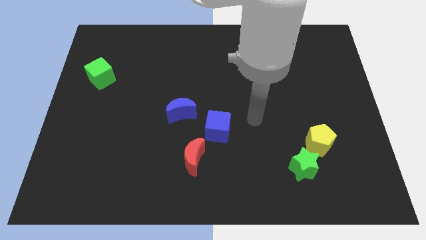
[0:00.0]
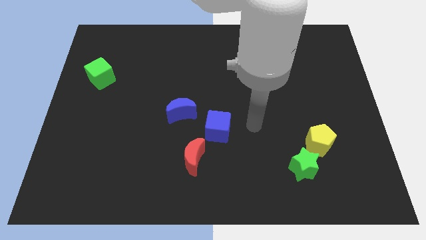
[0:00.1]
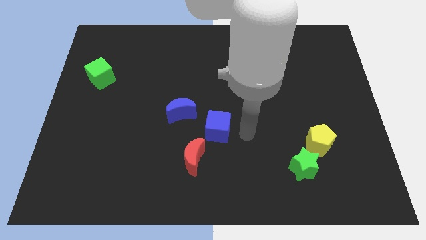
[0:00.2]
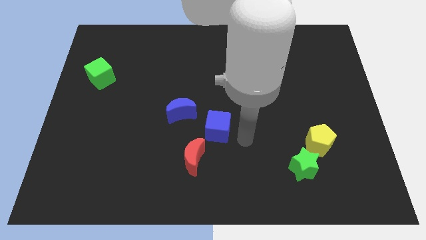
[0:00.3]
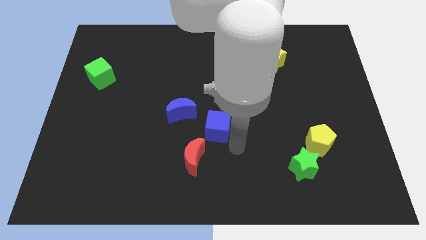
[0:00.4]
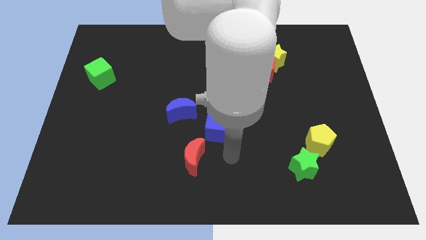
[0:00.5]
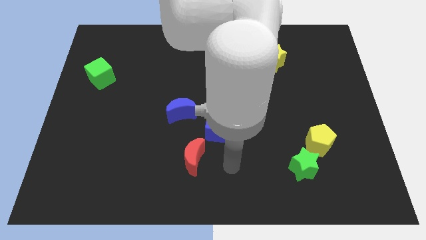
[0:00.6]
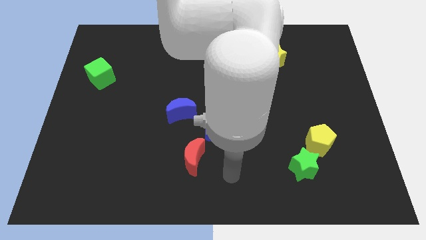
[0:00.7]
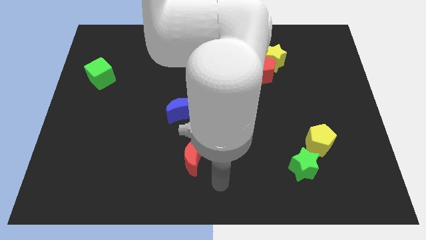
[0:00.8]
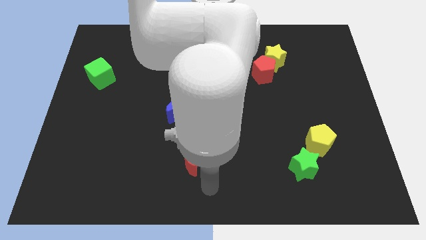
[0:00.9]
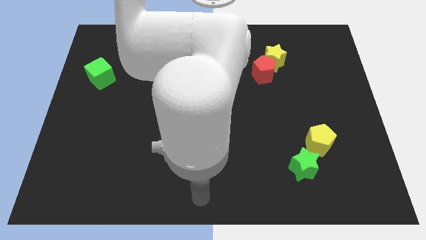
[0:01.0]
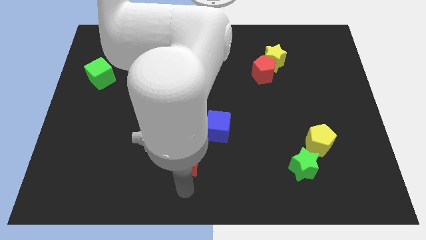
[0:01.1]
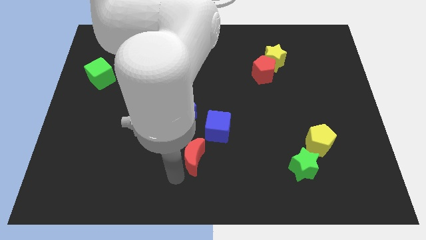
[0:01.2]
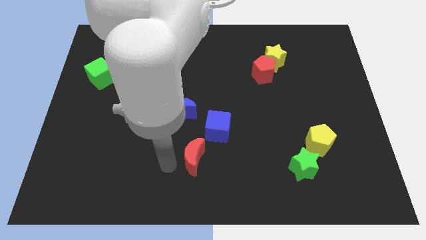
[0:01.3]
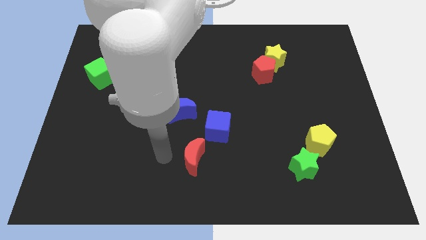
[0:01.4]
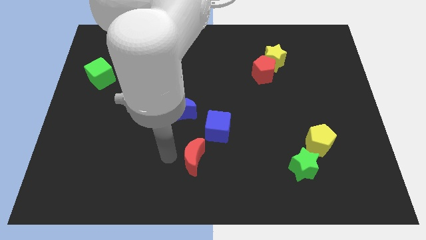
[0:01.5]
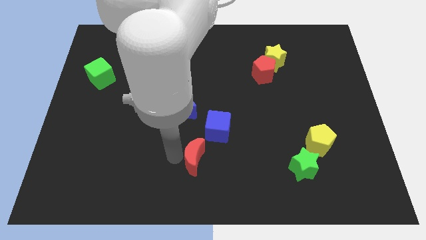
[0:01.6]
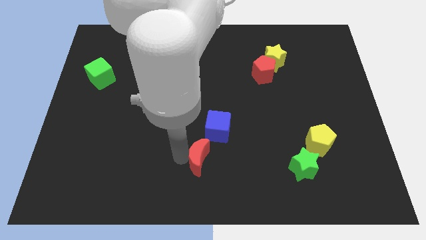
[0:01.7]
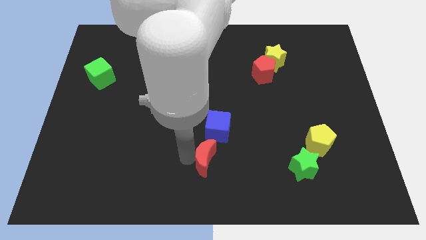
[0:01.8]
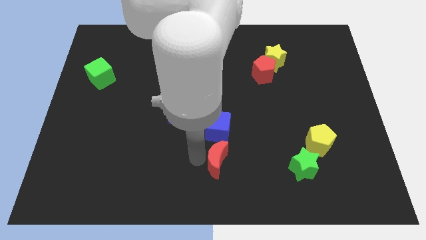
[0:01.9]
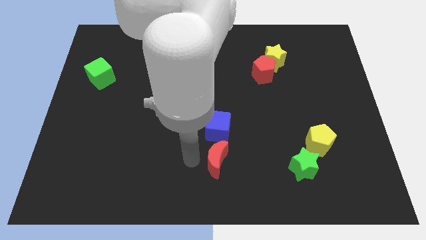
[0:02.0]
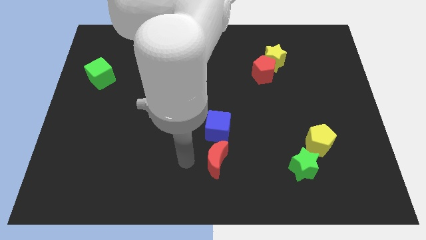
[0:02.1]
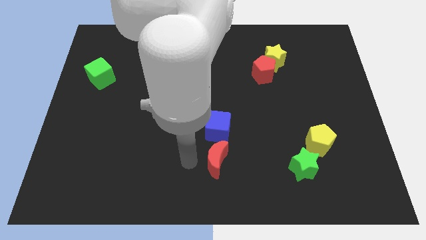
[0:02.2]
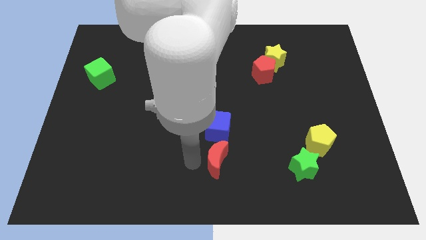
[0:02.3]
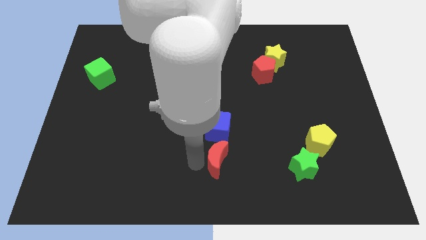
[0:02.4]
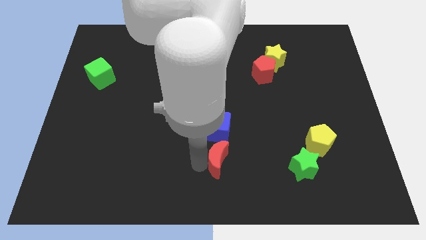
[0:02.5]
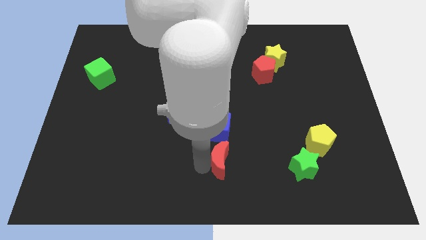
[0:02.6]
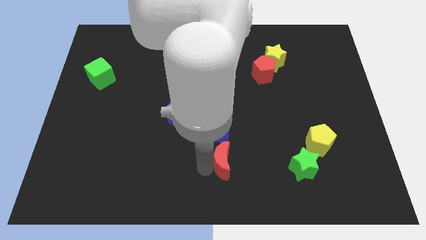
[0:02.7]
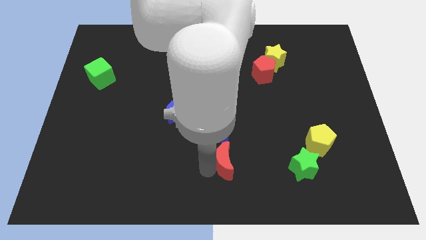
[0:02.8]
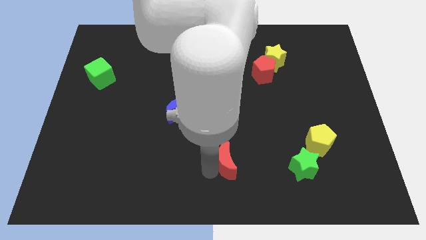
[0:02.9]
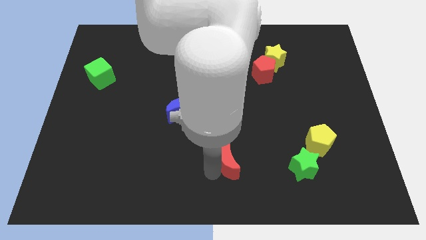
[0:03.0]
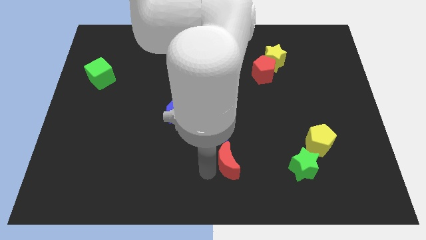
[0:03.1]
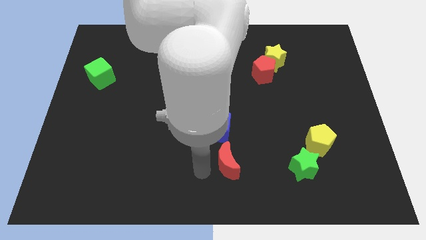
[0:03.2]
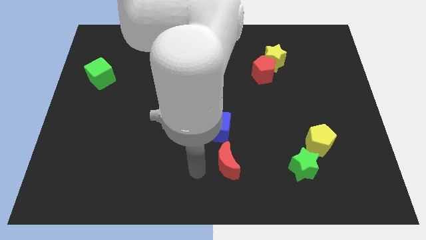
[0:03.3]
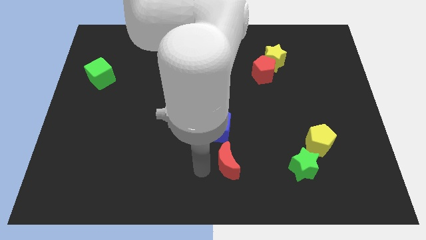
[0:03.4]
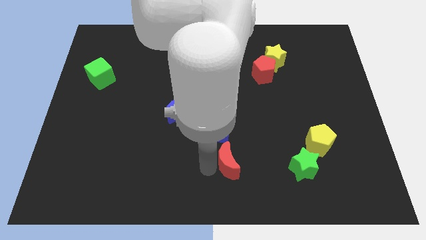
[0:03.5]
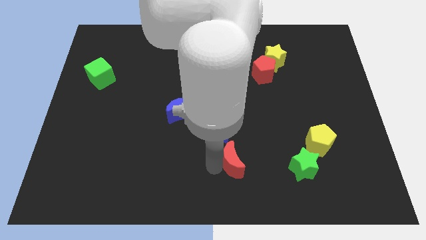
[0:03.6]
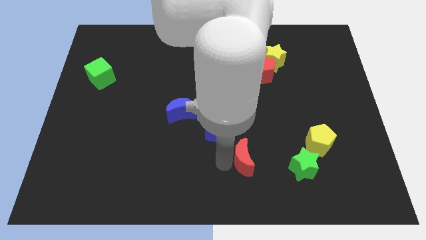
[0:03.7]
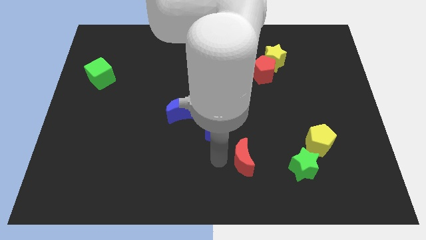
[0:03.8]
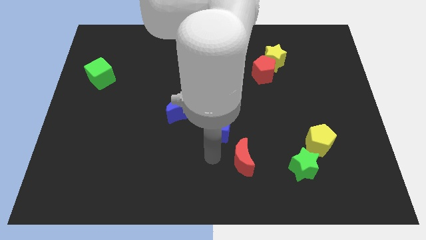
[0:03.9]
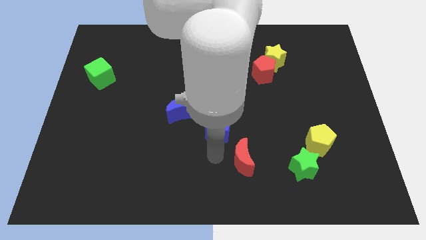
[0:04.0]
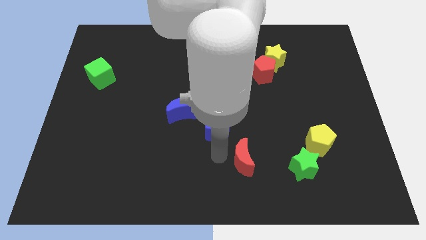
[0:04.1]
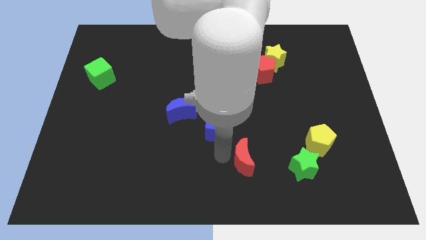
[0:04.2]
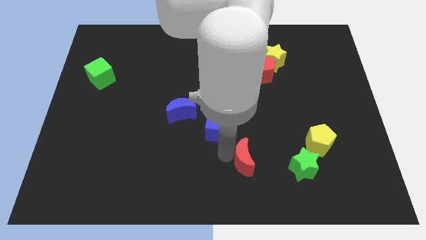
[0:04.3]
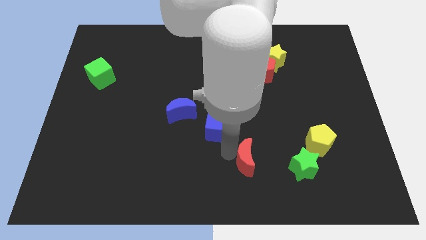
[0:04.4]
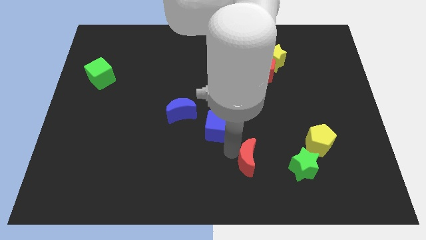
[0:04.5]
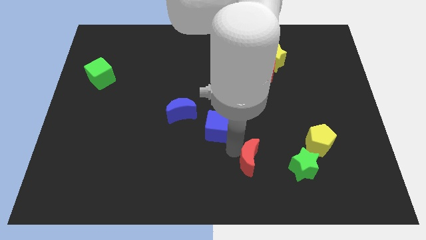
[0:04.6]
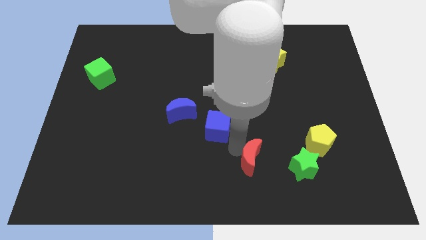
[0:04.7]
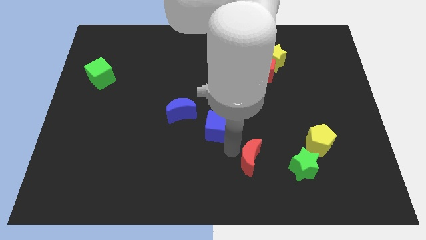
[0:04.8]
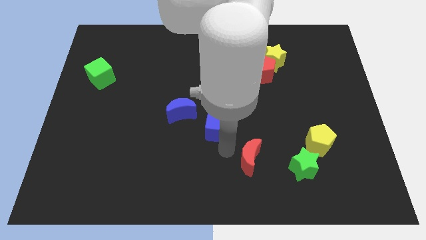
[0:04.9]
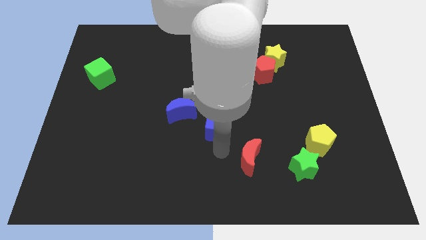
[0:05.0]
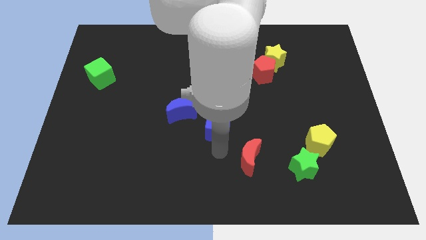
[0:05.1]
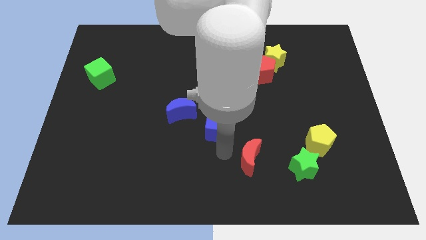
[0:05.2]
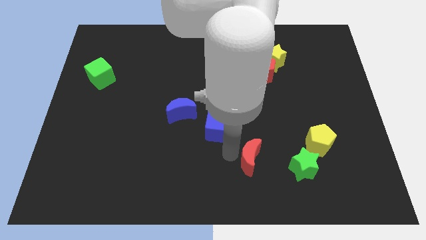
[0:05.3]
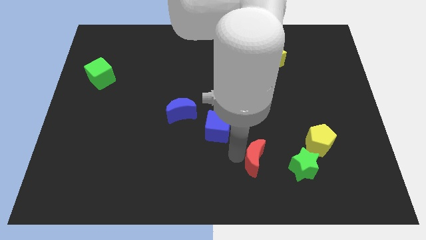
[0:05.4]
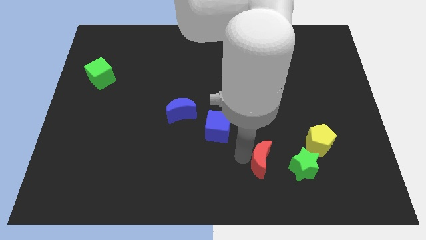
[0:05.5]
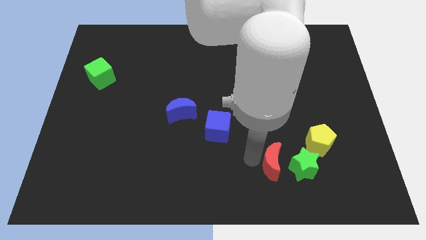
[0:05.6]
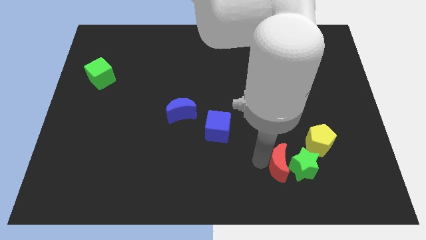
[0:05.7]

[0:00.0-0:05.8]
move the red moon next to the green star

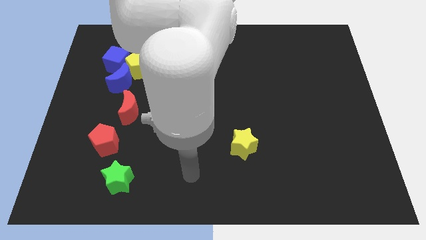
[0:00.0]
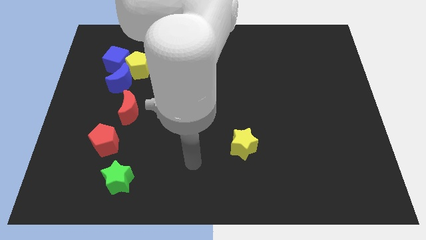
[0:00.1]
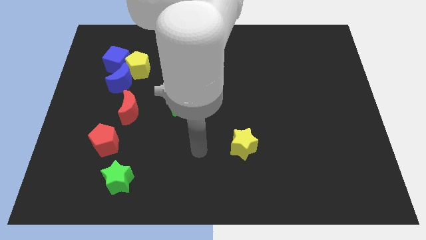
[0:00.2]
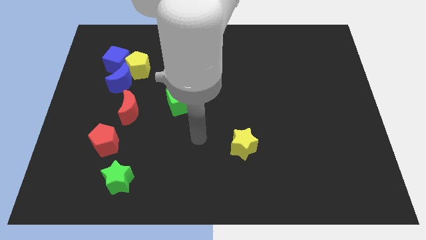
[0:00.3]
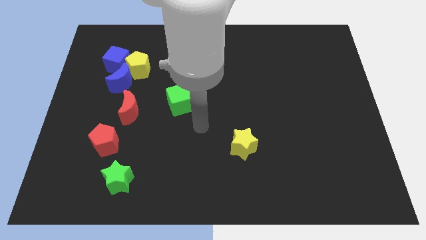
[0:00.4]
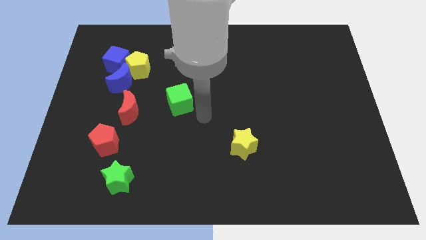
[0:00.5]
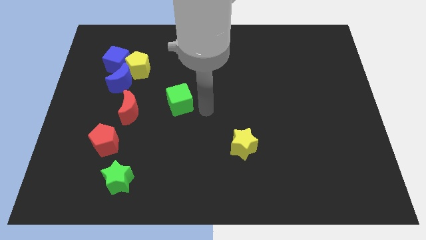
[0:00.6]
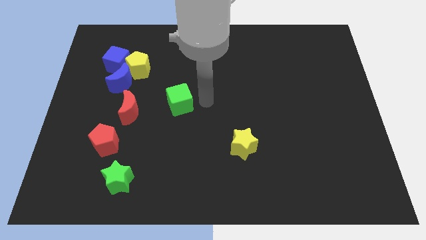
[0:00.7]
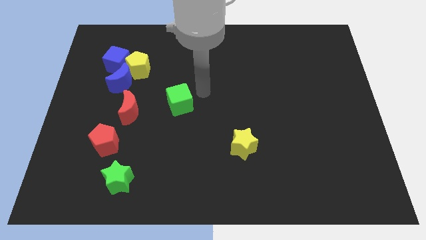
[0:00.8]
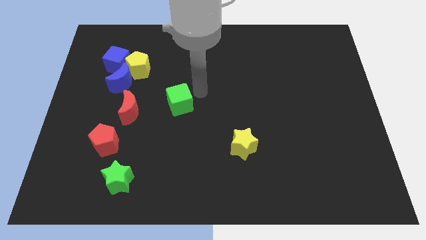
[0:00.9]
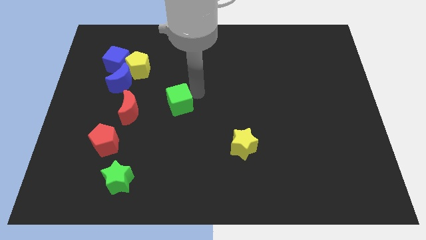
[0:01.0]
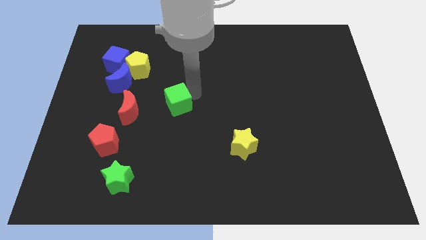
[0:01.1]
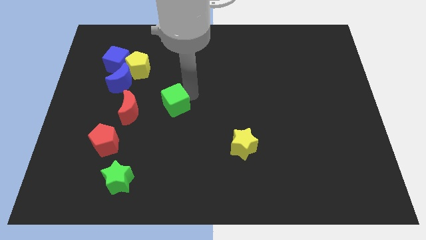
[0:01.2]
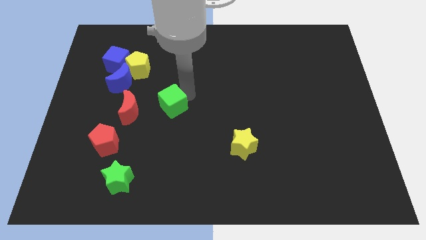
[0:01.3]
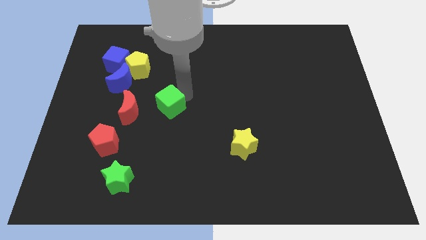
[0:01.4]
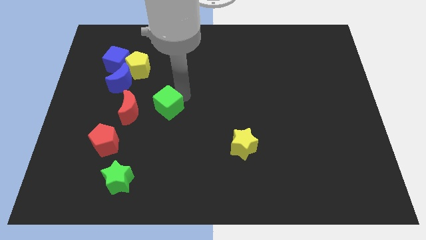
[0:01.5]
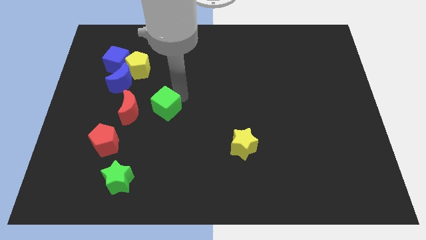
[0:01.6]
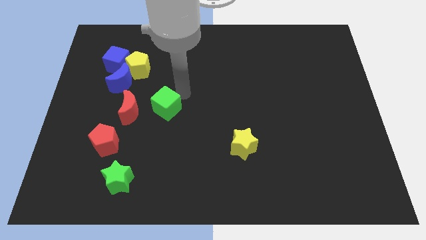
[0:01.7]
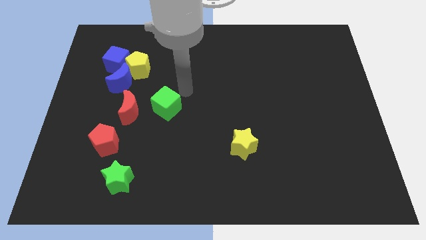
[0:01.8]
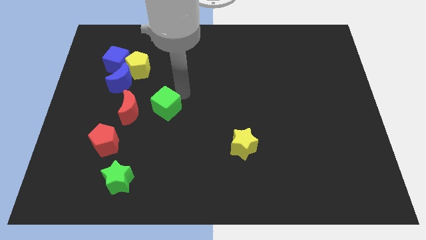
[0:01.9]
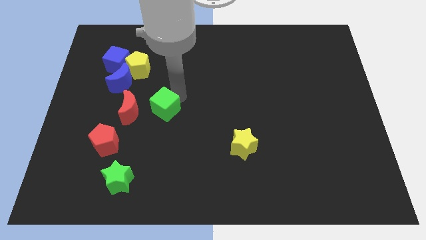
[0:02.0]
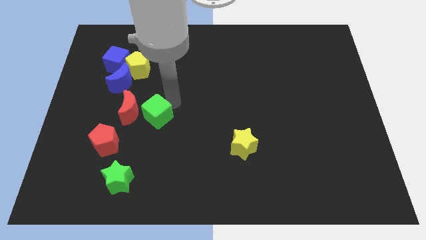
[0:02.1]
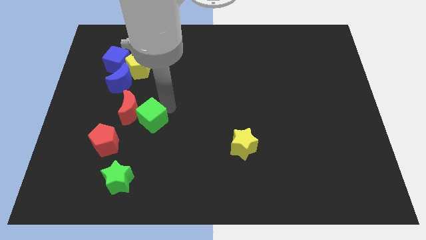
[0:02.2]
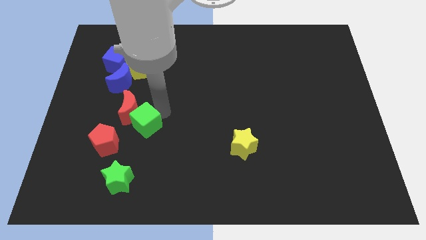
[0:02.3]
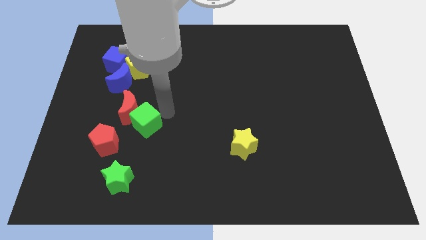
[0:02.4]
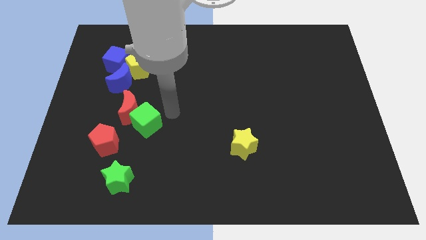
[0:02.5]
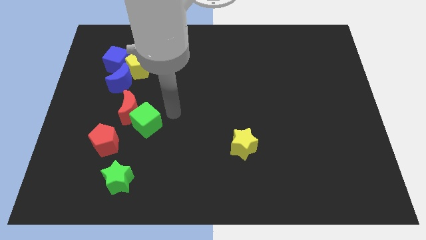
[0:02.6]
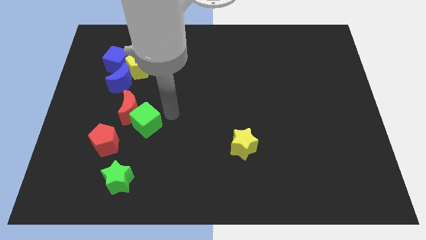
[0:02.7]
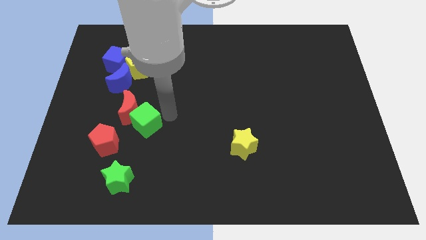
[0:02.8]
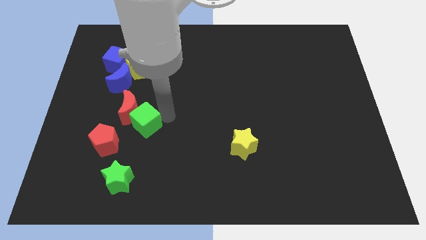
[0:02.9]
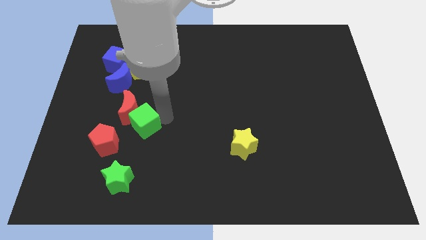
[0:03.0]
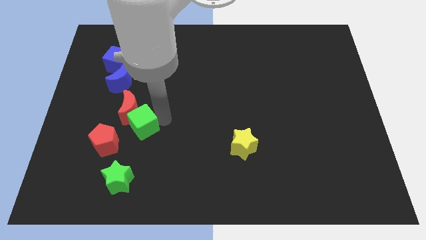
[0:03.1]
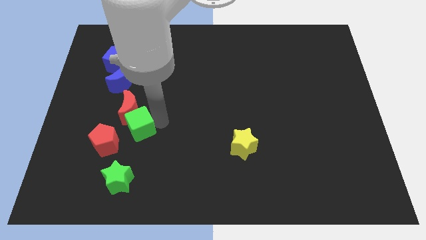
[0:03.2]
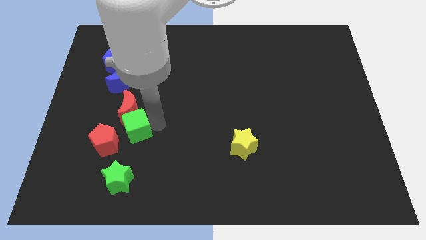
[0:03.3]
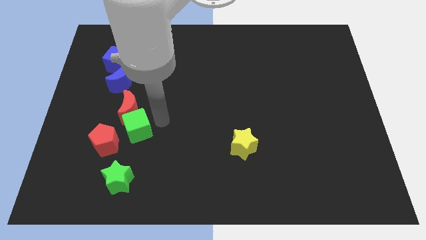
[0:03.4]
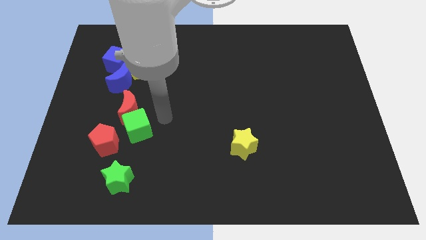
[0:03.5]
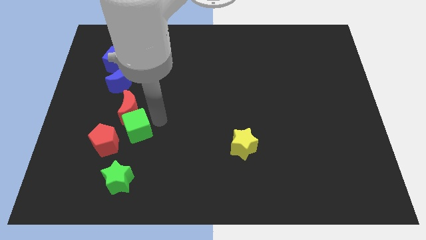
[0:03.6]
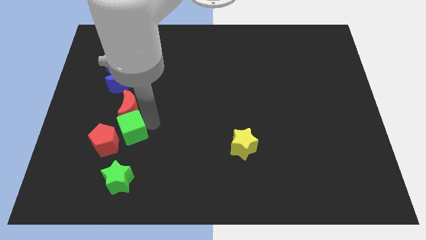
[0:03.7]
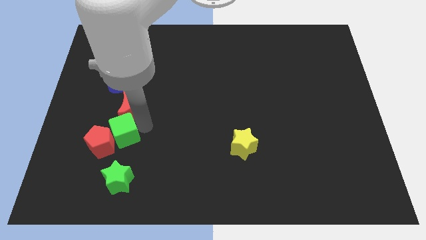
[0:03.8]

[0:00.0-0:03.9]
slide the green cube close to the red pentagon
